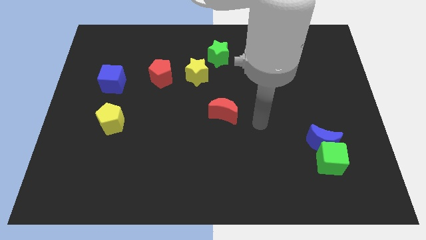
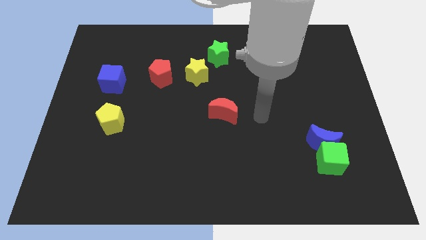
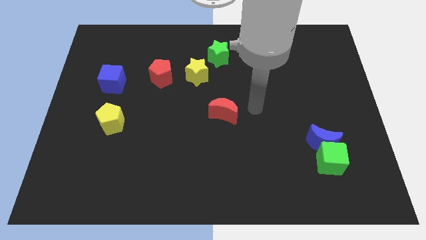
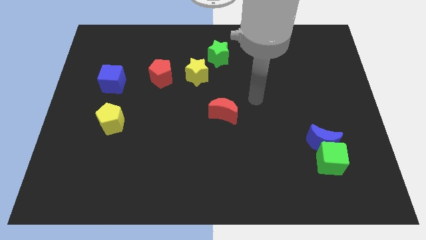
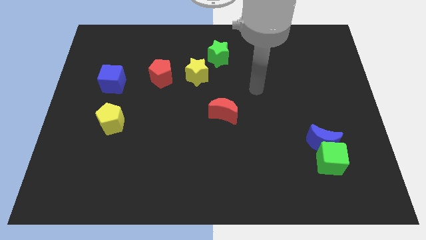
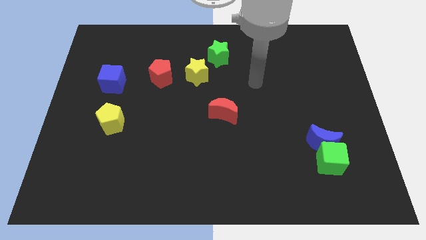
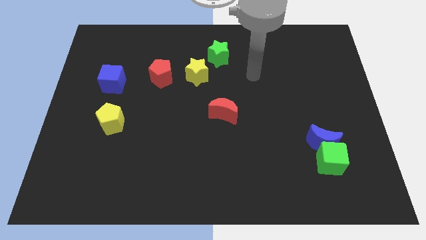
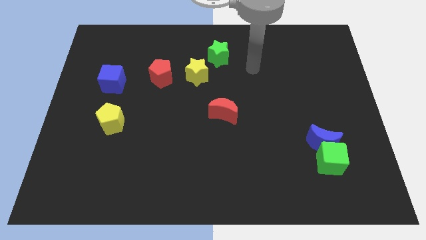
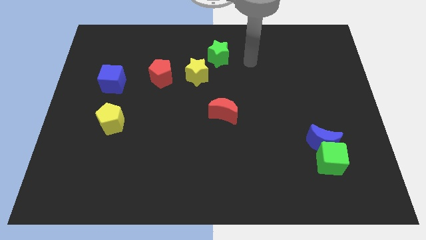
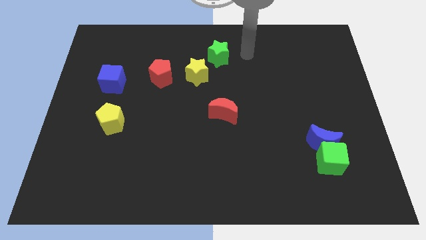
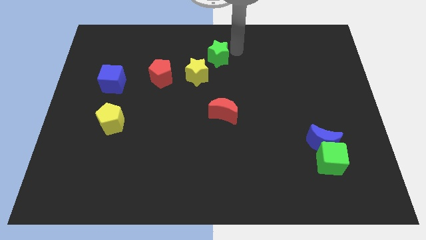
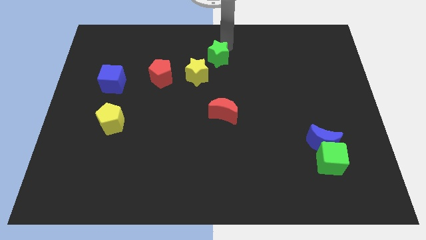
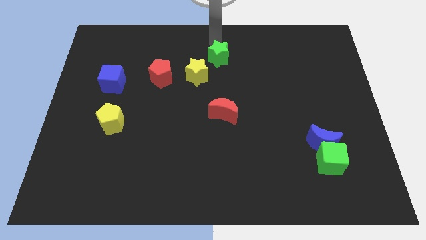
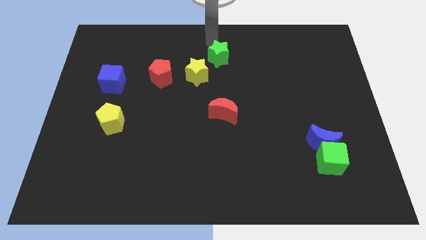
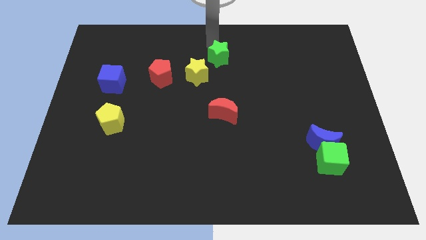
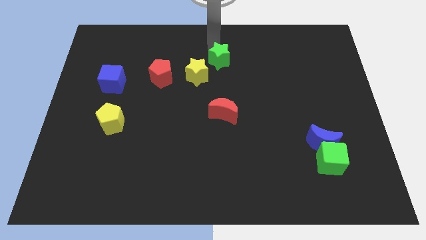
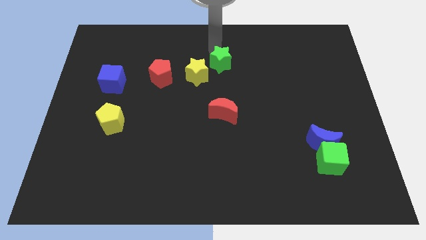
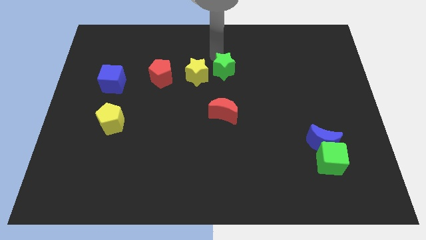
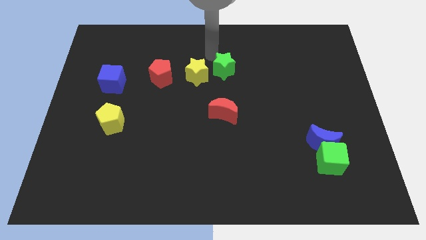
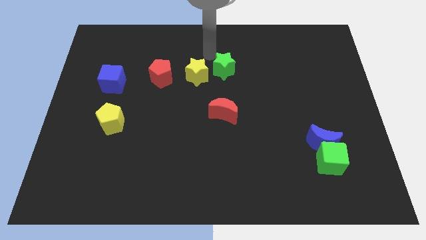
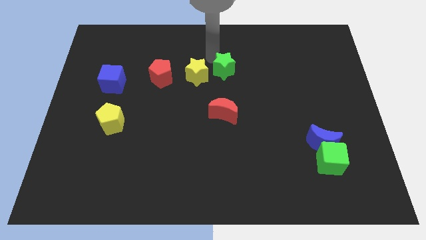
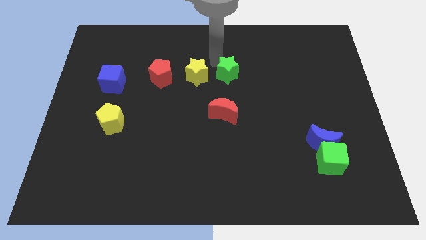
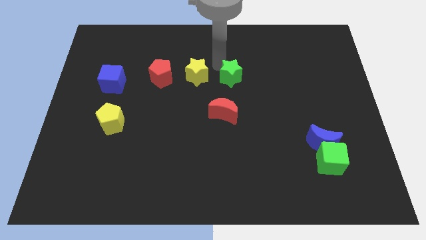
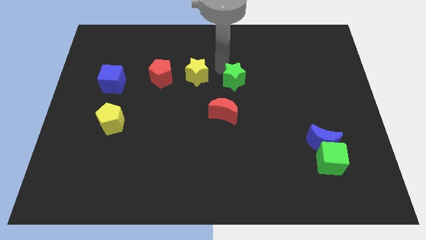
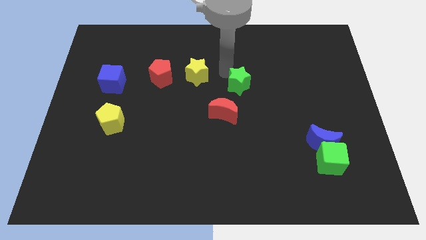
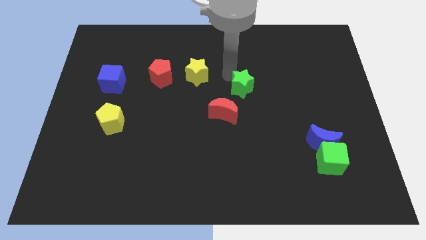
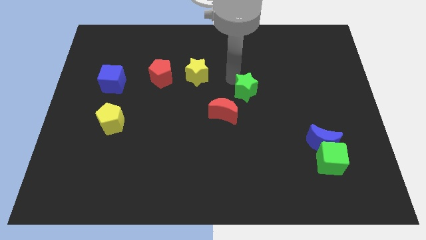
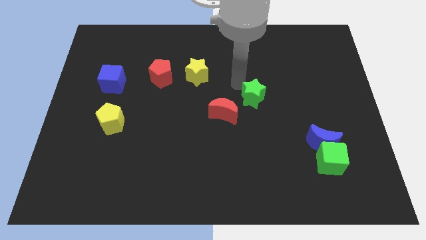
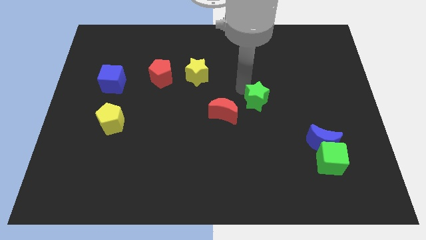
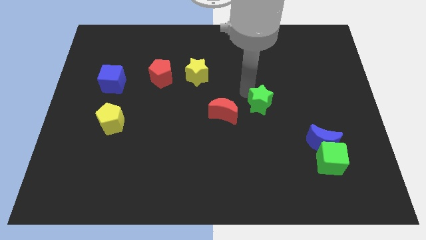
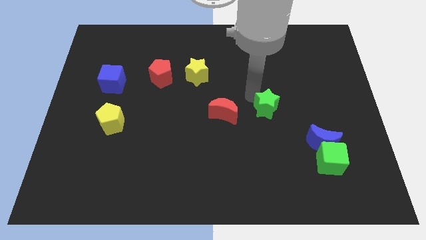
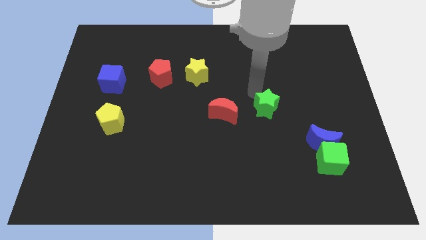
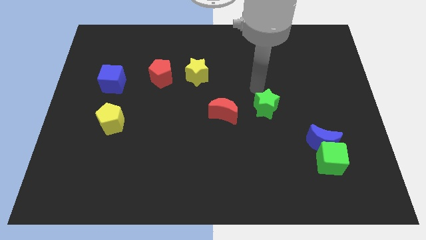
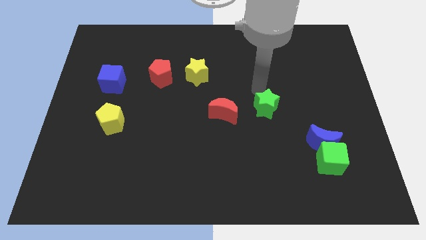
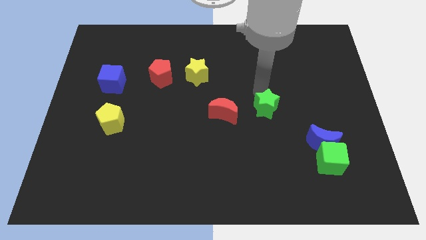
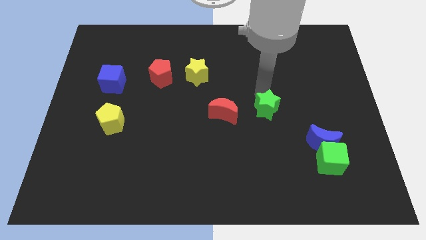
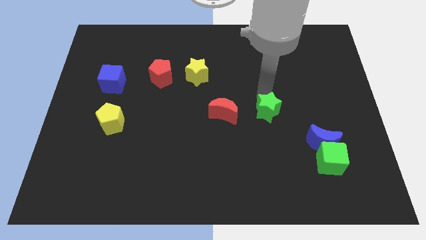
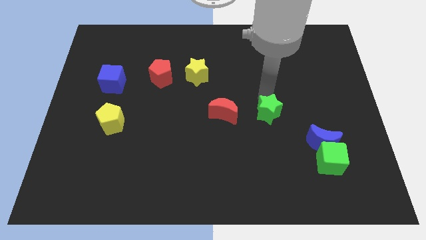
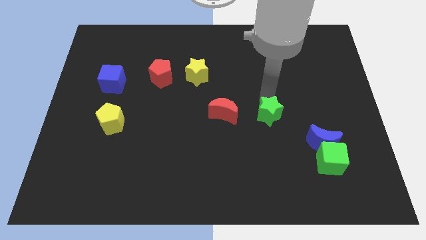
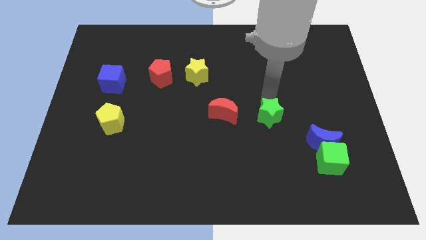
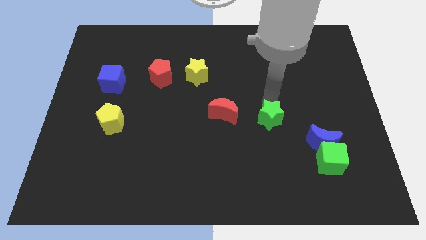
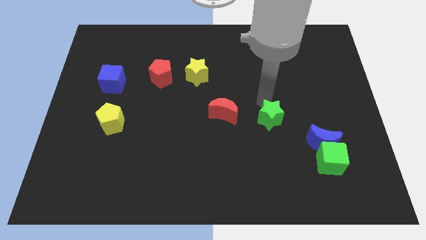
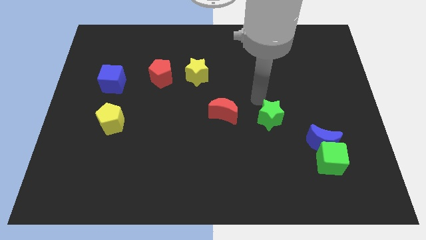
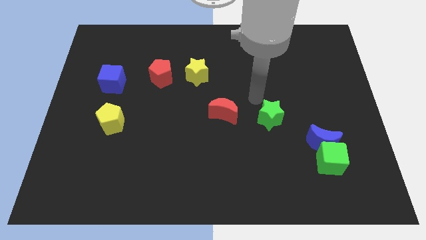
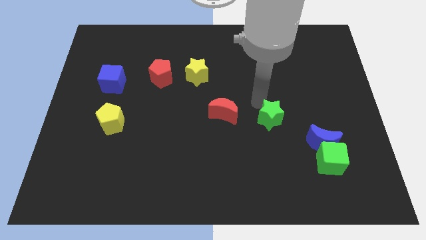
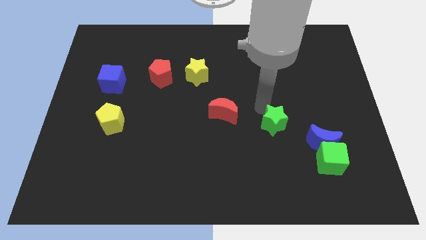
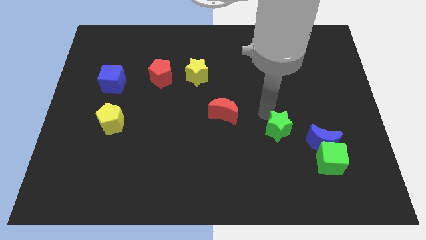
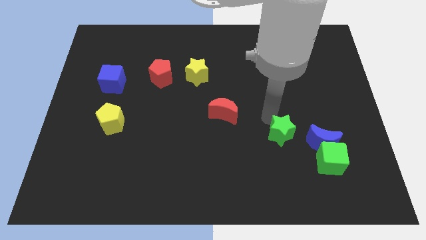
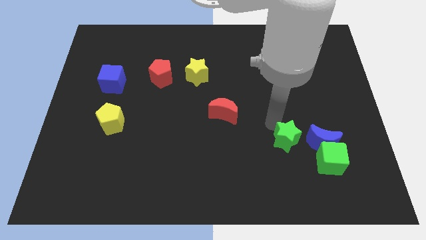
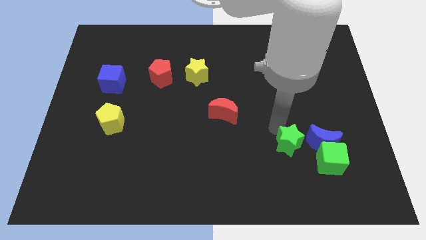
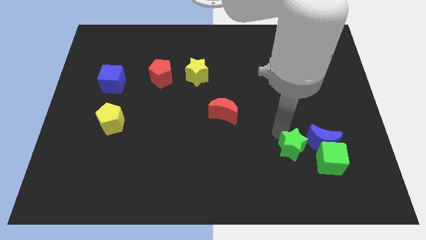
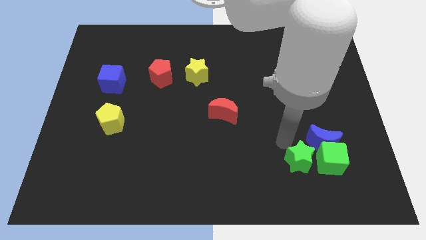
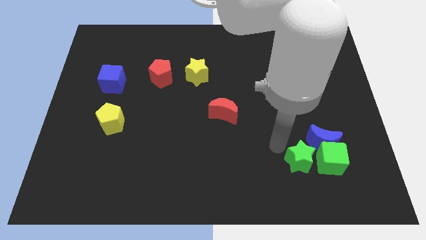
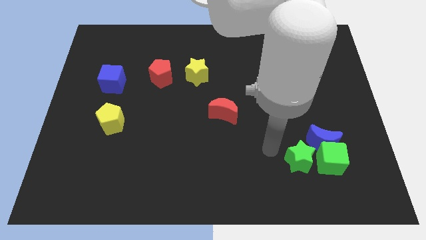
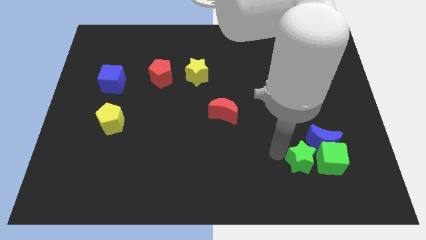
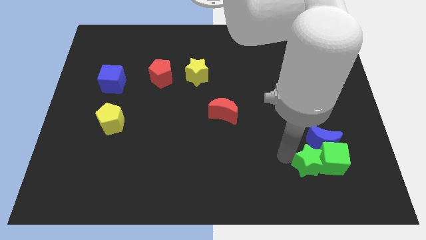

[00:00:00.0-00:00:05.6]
slide the green star next to the green cube

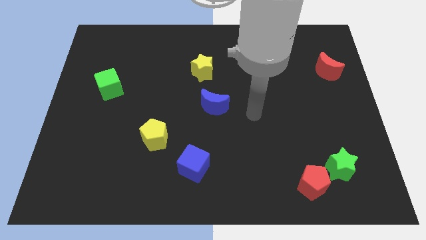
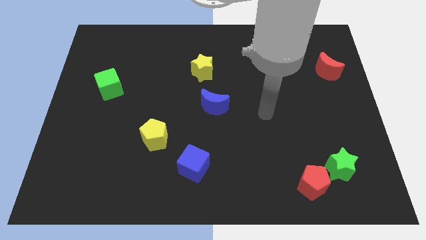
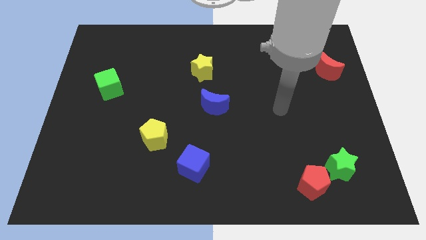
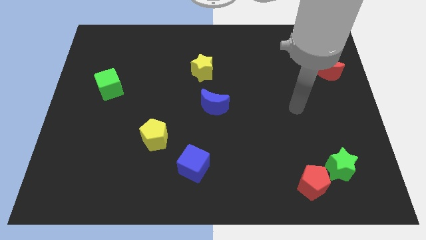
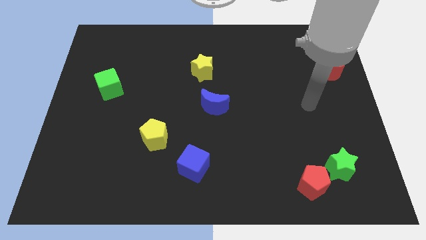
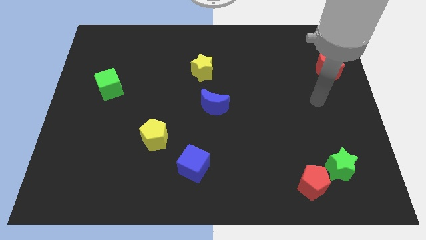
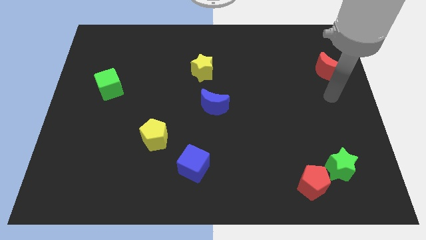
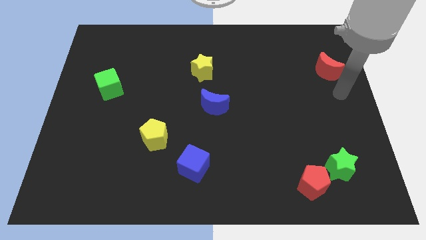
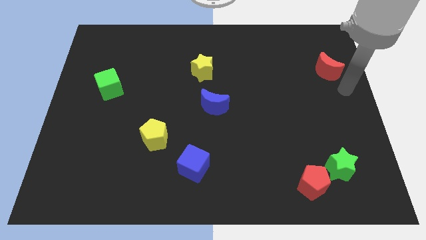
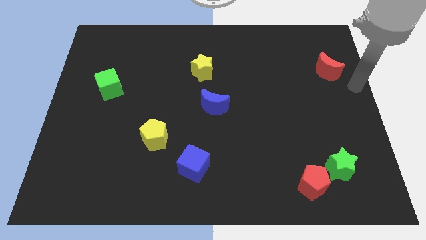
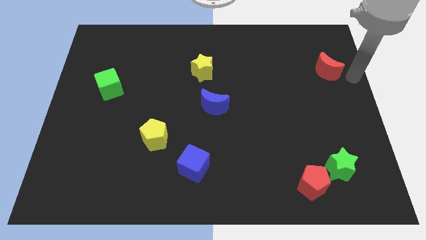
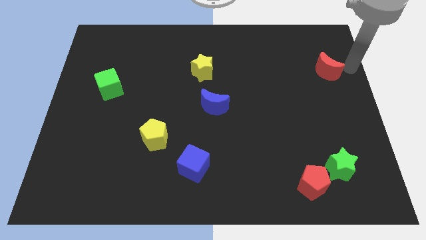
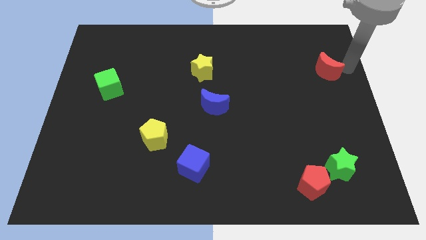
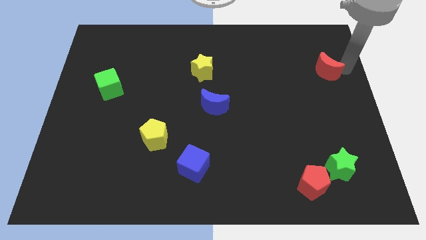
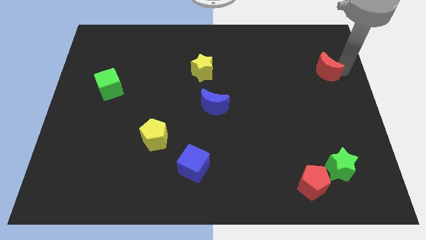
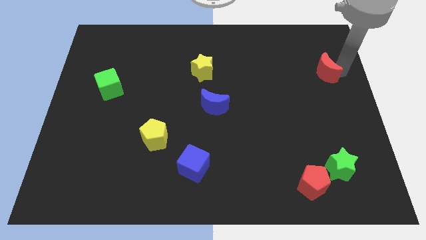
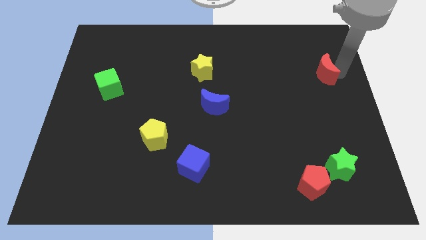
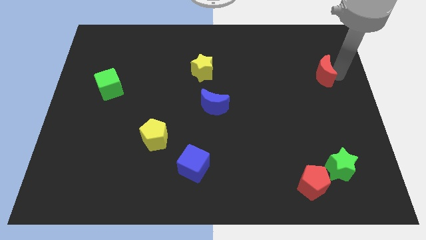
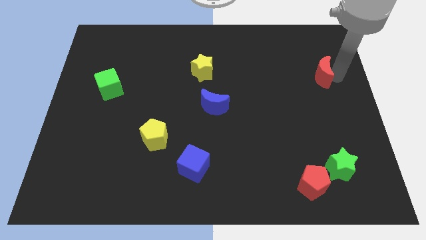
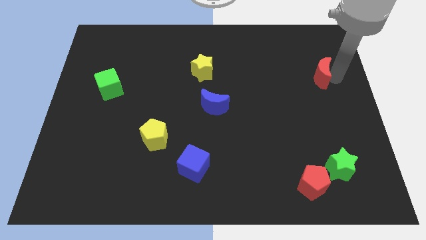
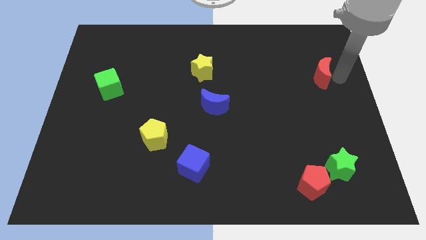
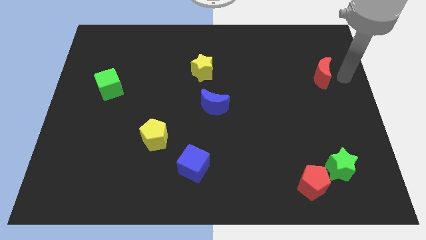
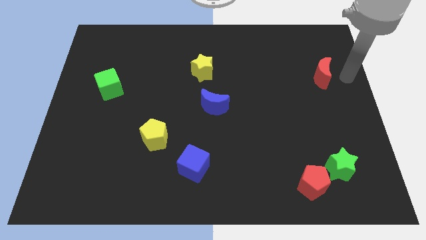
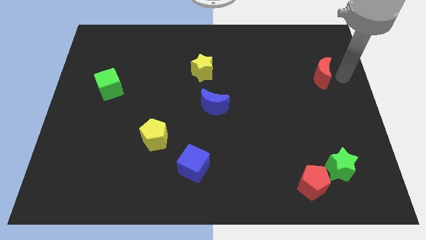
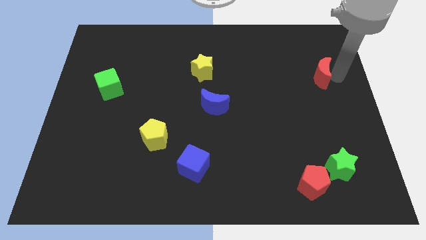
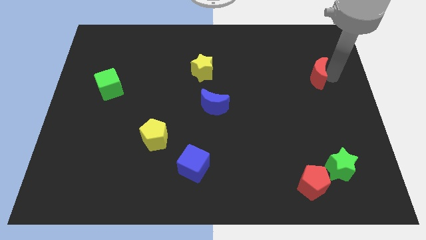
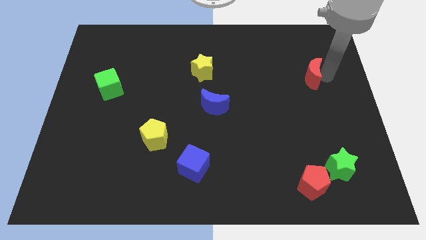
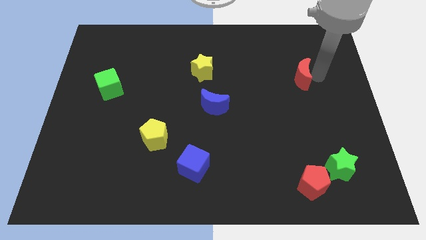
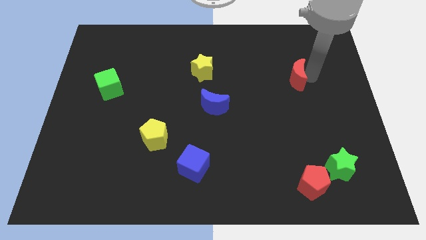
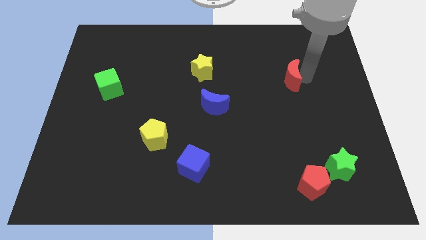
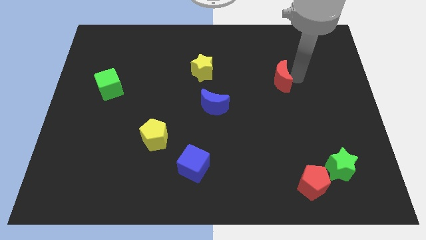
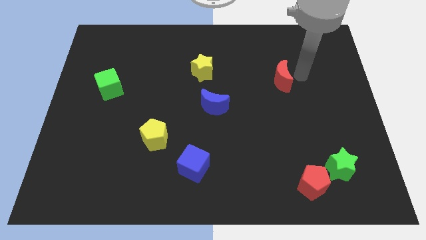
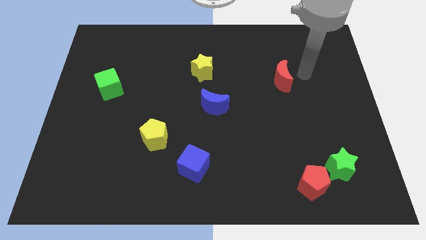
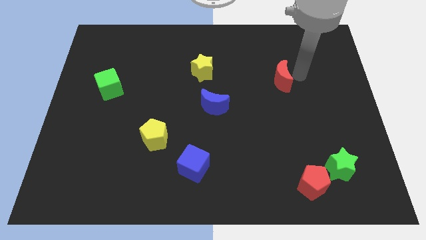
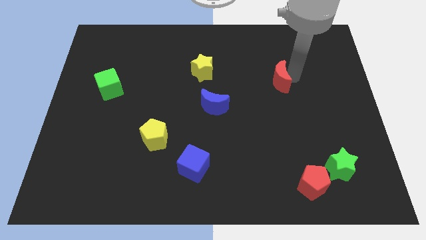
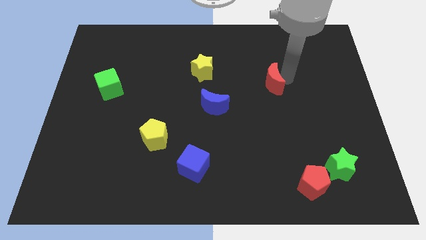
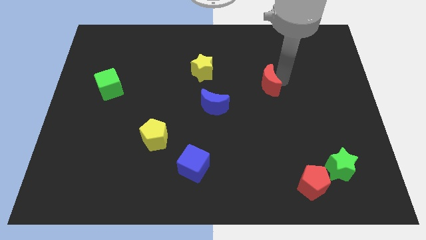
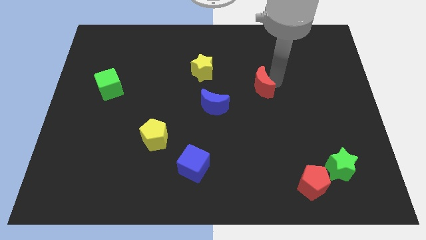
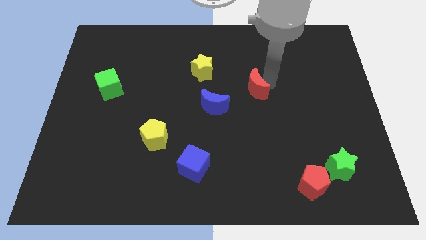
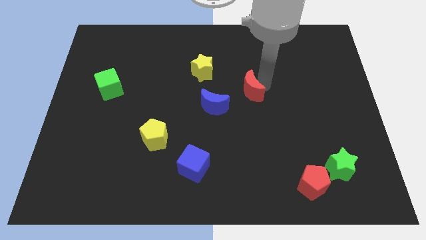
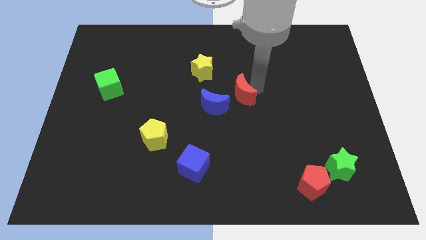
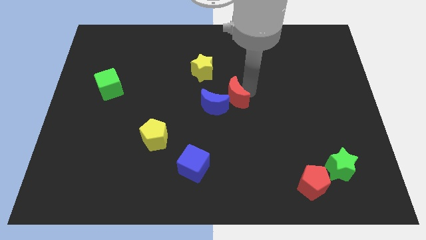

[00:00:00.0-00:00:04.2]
slide the red moon to the blue moon
